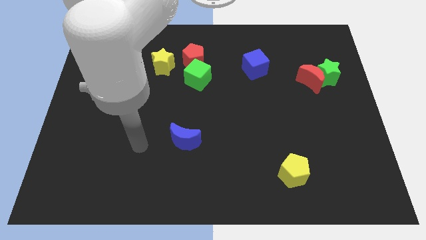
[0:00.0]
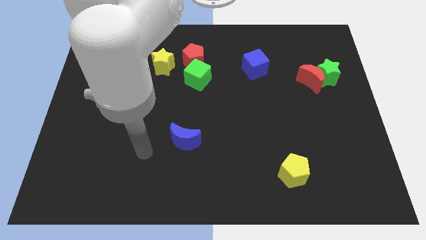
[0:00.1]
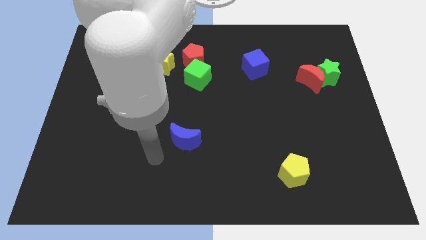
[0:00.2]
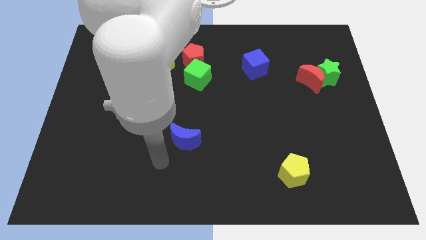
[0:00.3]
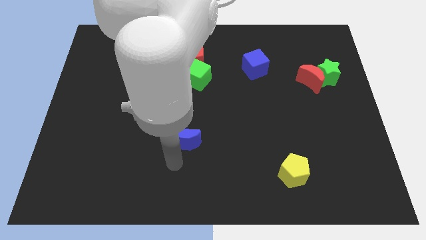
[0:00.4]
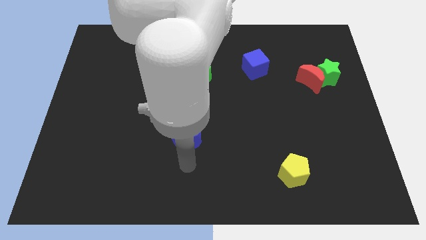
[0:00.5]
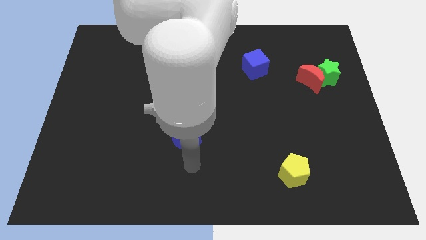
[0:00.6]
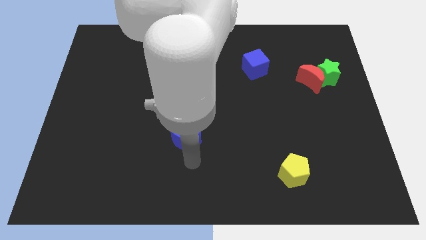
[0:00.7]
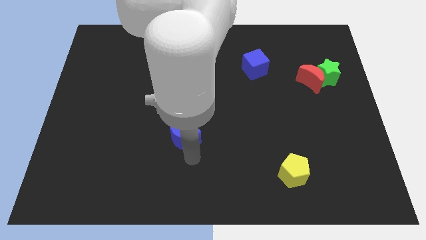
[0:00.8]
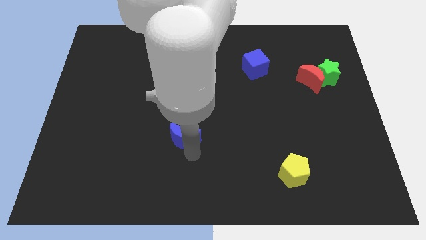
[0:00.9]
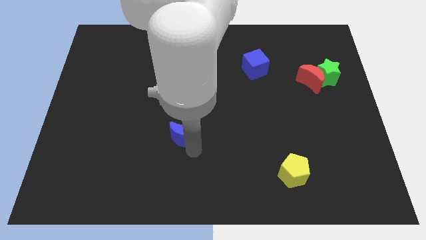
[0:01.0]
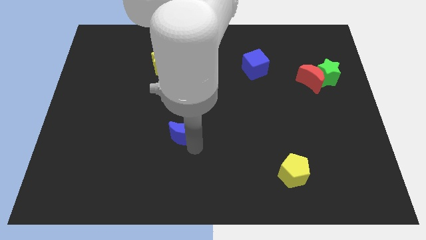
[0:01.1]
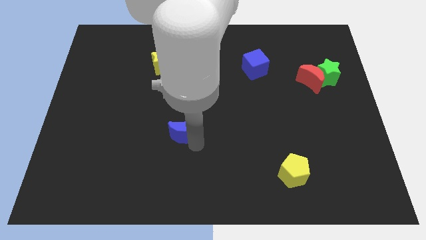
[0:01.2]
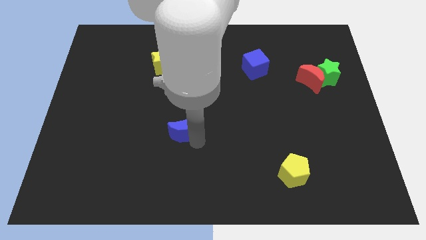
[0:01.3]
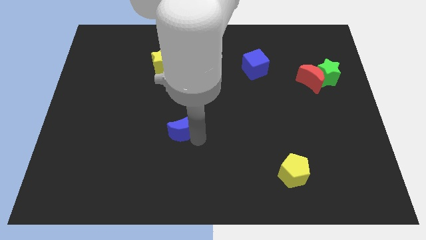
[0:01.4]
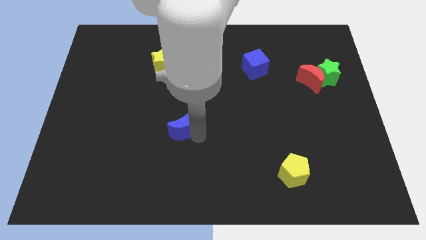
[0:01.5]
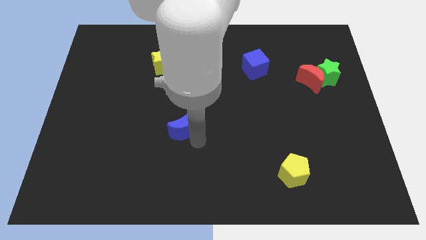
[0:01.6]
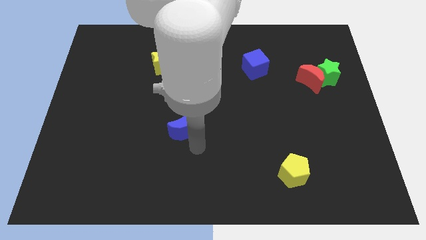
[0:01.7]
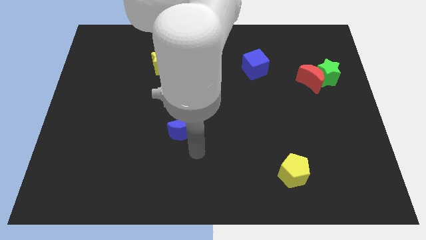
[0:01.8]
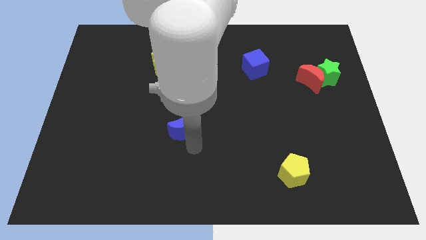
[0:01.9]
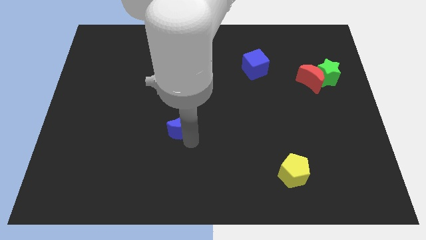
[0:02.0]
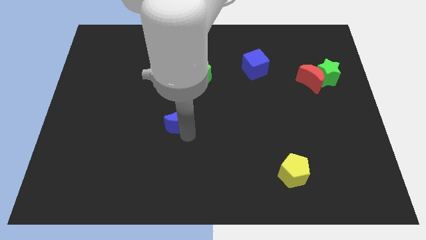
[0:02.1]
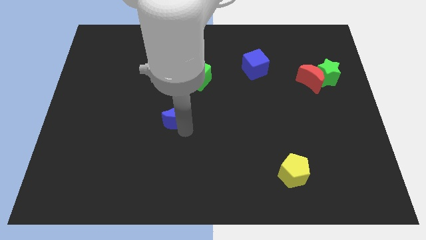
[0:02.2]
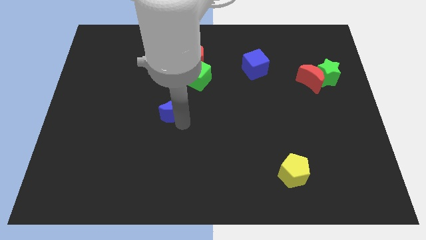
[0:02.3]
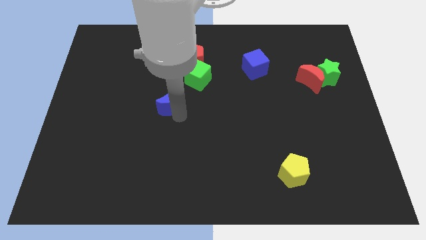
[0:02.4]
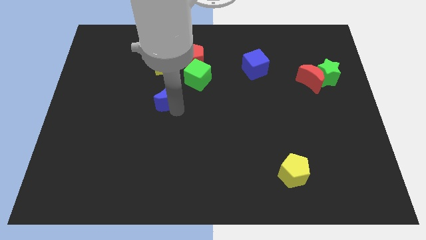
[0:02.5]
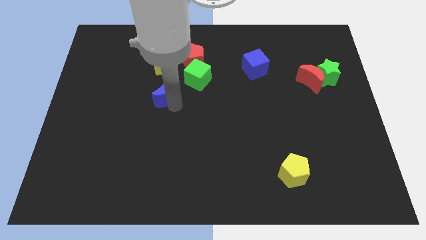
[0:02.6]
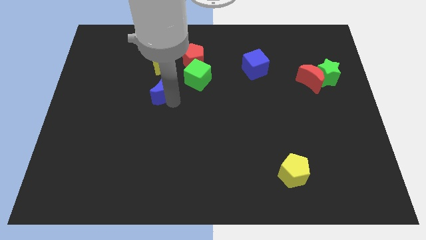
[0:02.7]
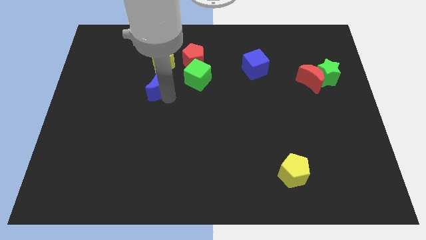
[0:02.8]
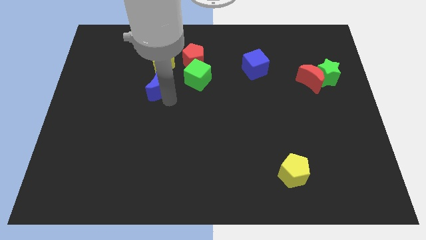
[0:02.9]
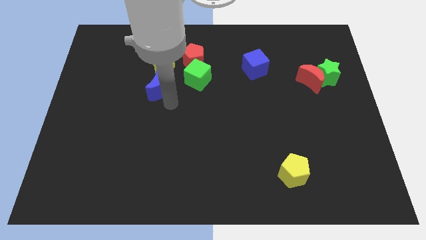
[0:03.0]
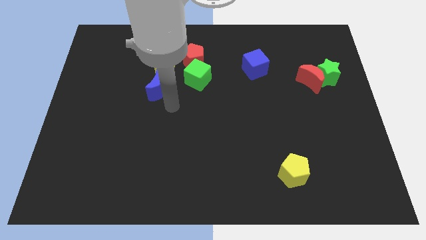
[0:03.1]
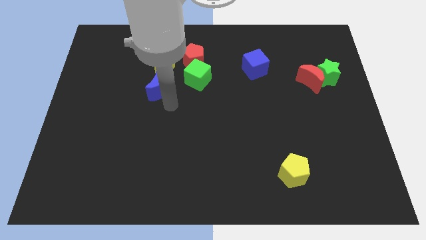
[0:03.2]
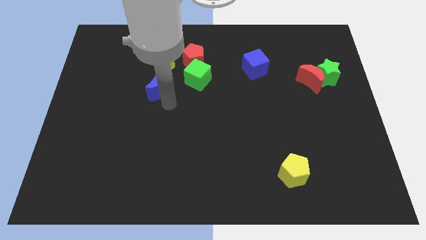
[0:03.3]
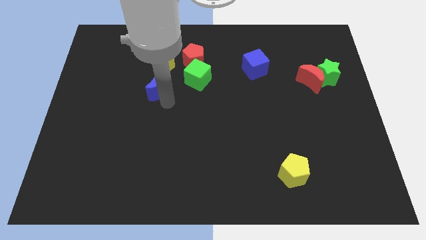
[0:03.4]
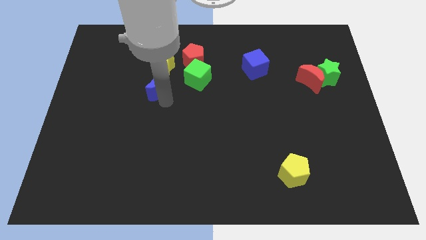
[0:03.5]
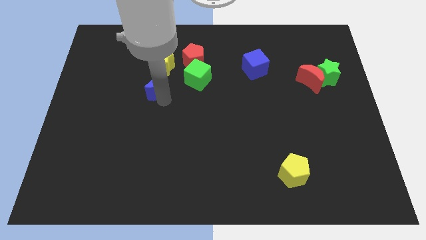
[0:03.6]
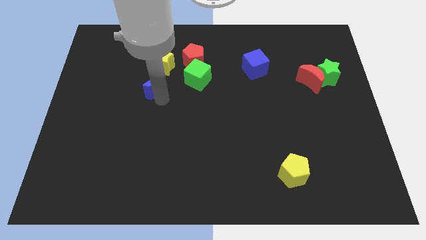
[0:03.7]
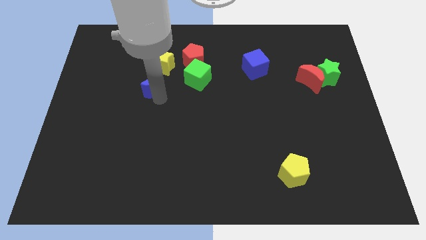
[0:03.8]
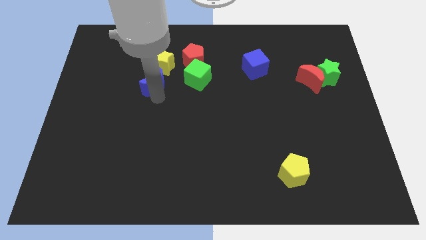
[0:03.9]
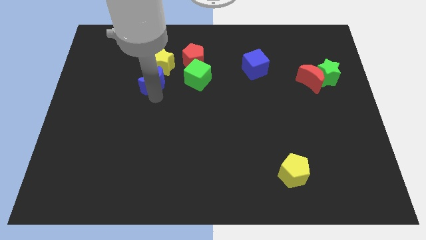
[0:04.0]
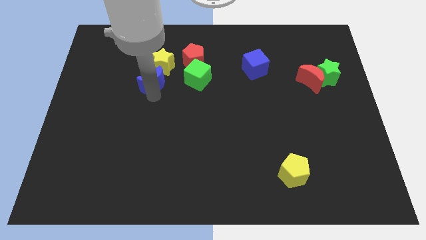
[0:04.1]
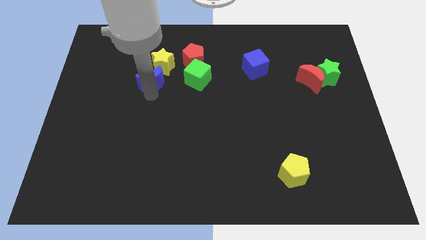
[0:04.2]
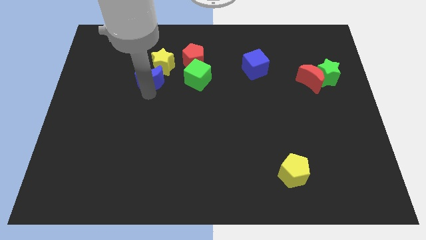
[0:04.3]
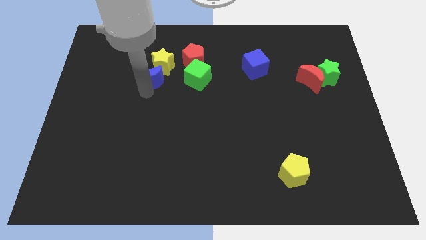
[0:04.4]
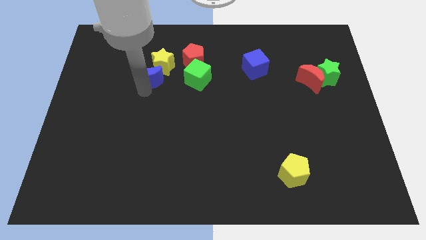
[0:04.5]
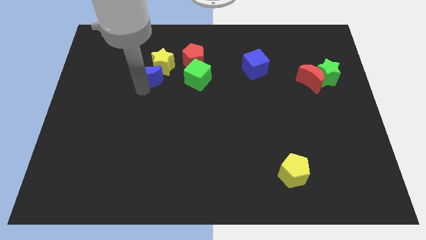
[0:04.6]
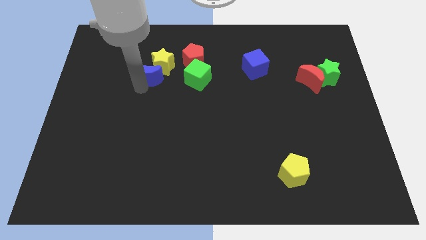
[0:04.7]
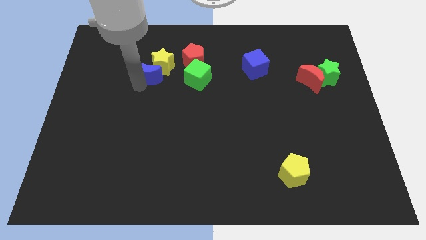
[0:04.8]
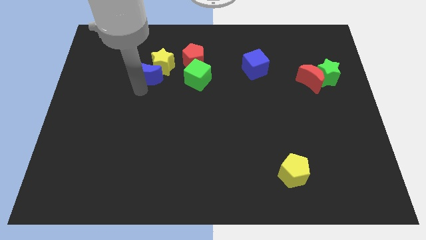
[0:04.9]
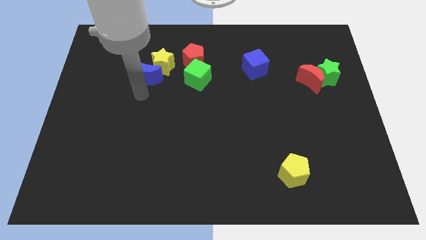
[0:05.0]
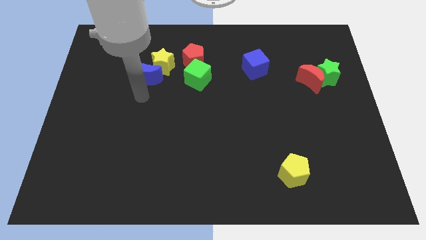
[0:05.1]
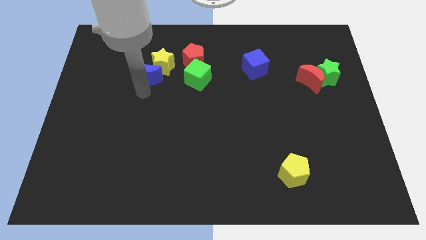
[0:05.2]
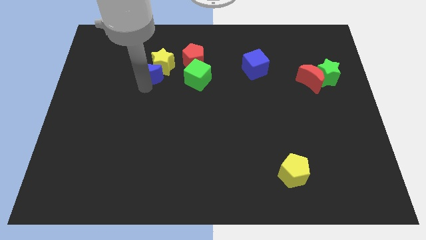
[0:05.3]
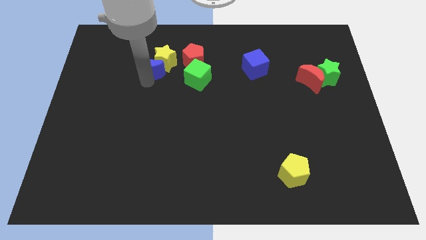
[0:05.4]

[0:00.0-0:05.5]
slide the blue moon to the left of the red pentagon

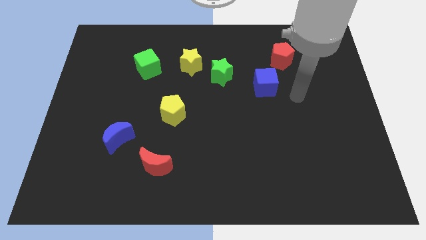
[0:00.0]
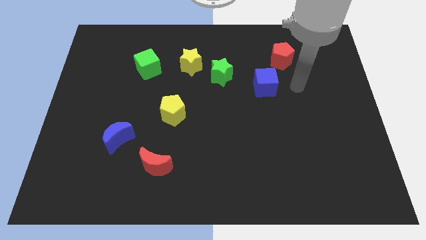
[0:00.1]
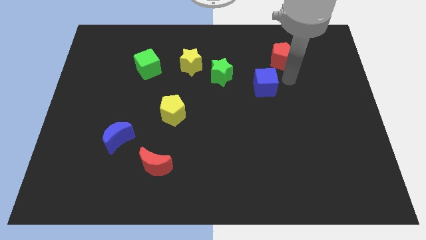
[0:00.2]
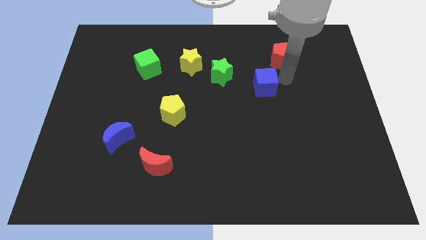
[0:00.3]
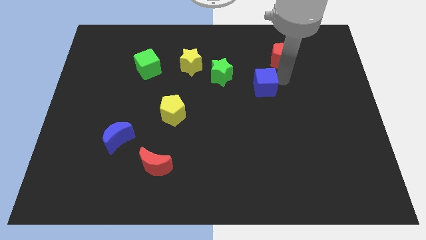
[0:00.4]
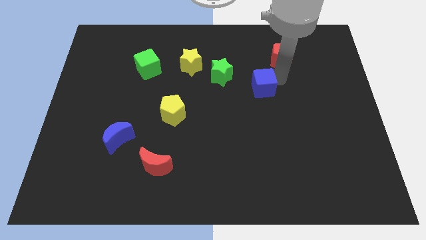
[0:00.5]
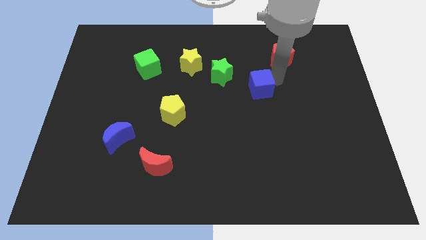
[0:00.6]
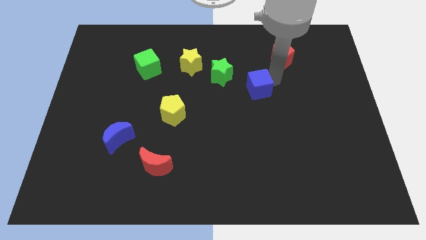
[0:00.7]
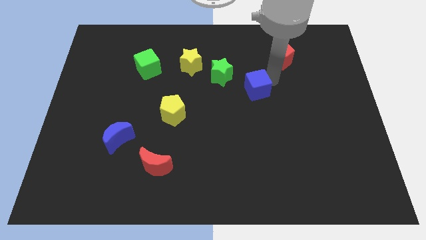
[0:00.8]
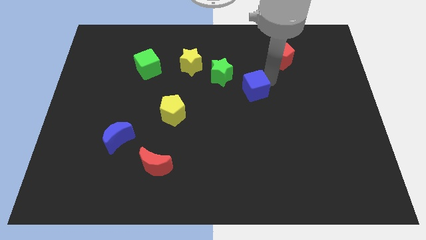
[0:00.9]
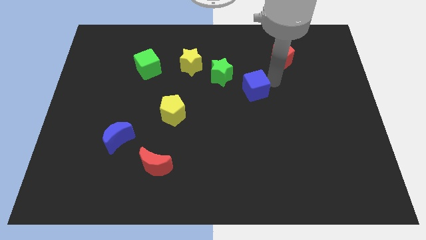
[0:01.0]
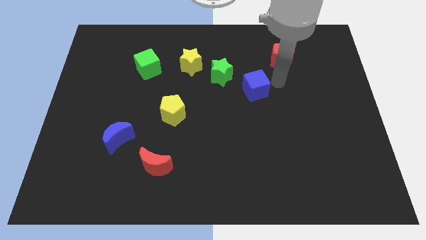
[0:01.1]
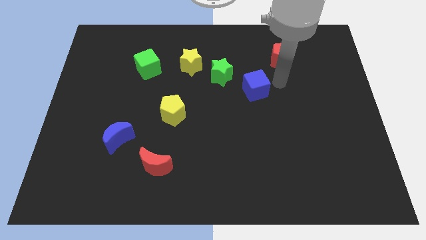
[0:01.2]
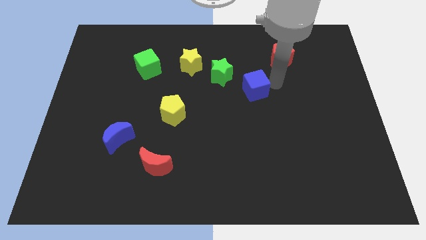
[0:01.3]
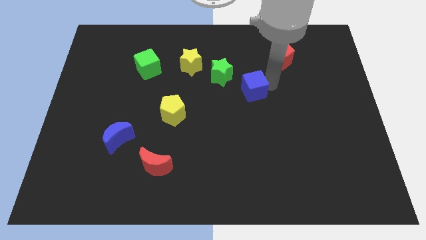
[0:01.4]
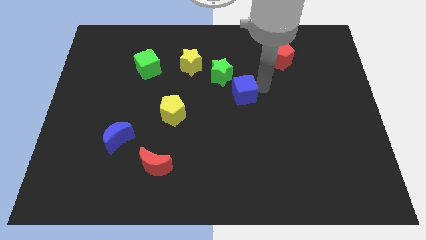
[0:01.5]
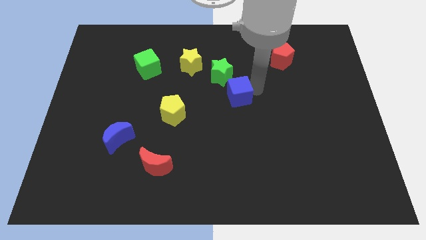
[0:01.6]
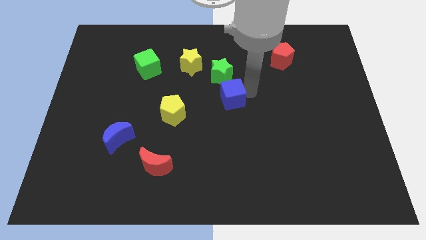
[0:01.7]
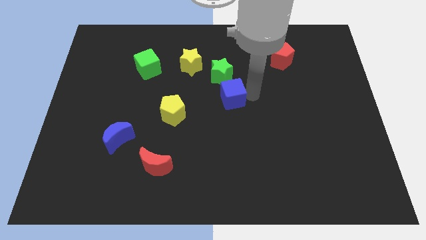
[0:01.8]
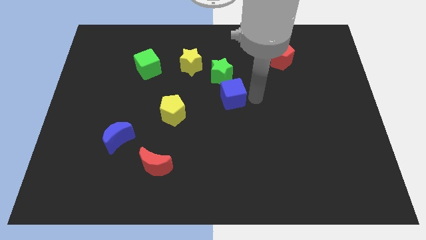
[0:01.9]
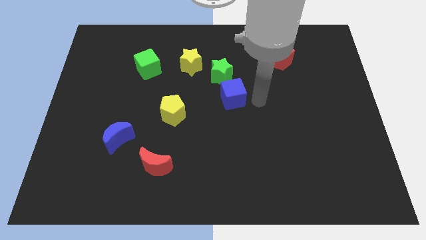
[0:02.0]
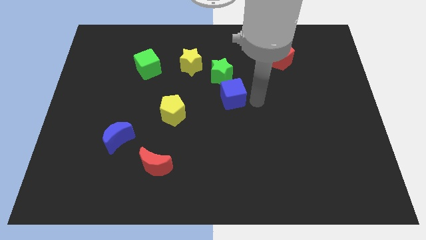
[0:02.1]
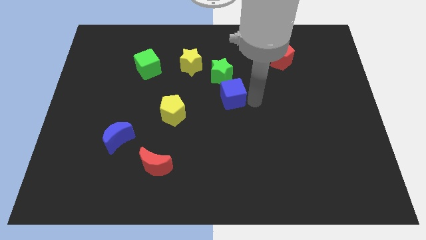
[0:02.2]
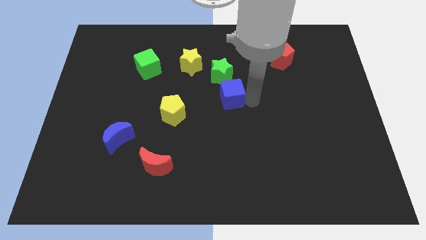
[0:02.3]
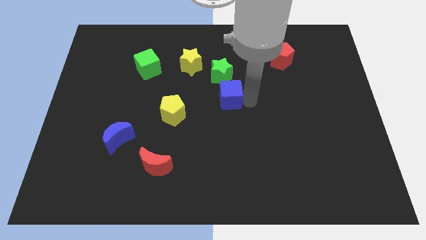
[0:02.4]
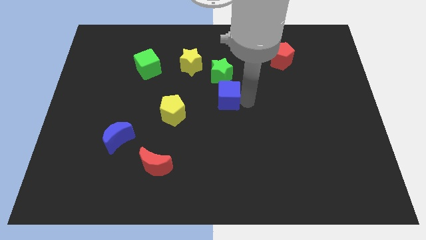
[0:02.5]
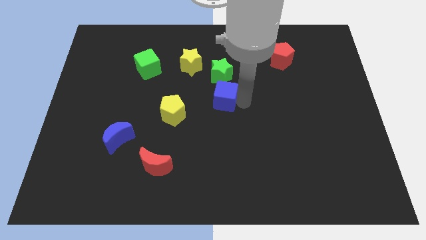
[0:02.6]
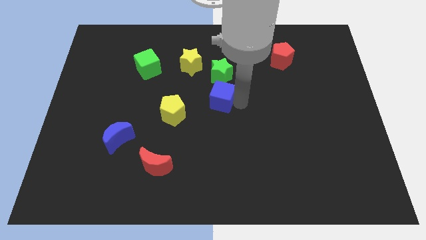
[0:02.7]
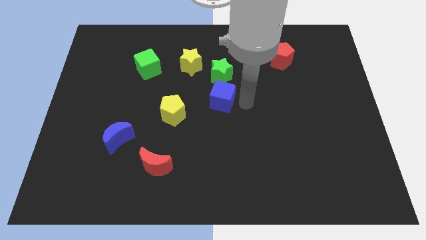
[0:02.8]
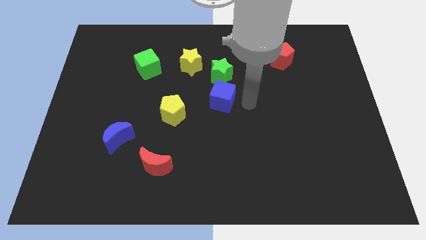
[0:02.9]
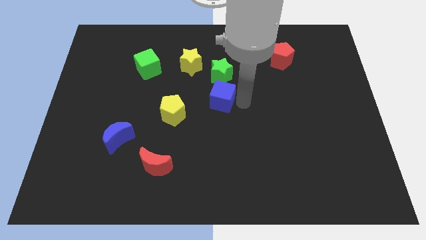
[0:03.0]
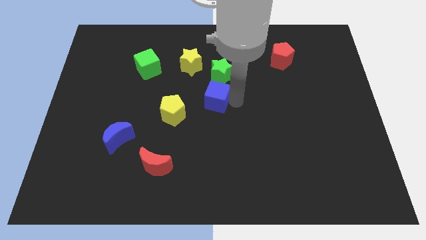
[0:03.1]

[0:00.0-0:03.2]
move the blue cube diagonally up and to the right of the yellow pentagon
